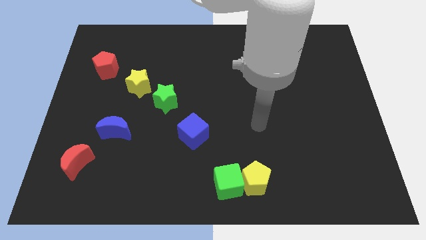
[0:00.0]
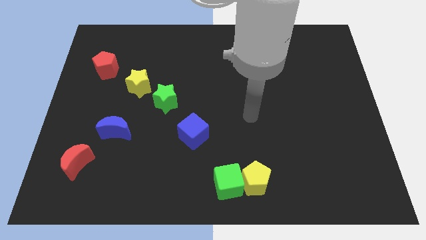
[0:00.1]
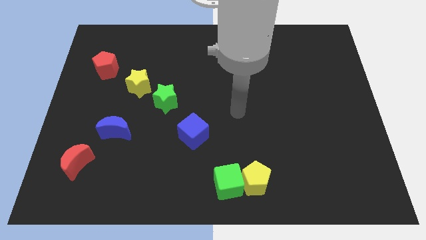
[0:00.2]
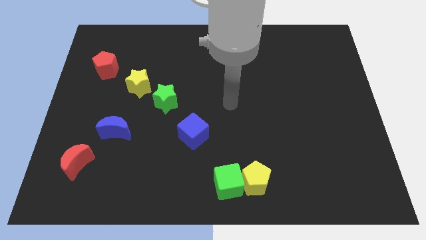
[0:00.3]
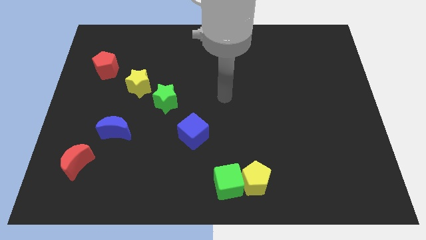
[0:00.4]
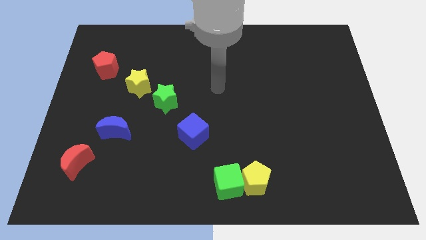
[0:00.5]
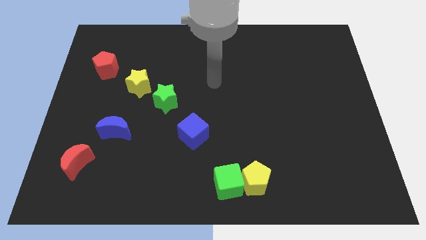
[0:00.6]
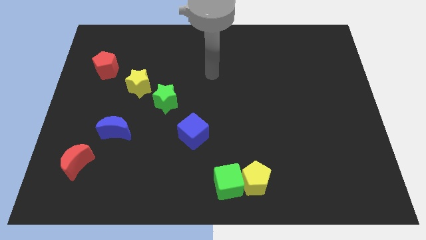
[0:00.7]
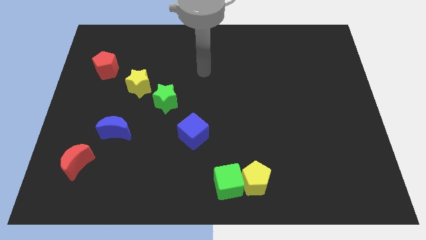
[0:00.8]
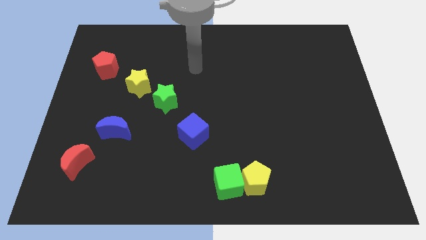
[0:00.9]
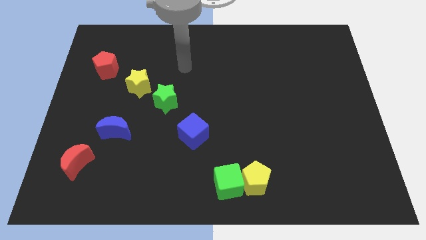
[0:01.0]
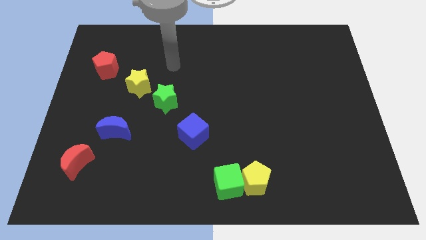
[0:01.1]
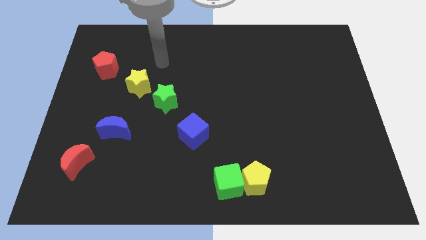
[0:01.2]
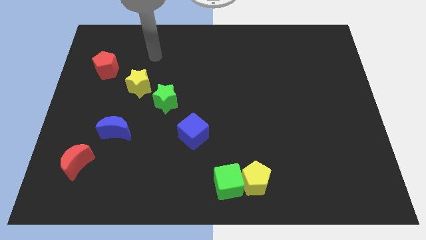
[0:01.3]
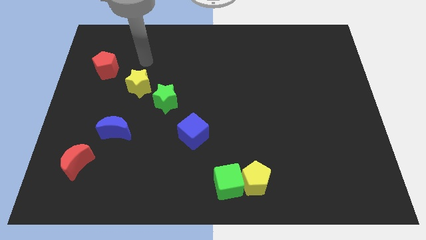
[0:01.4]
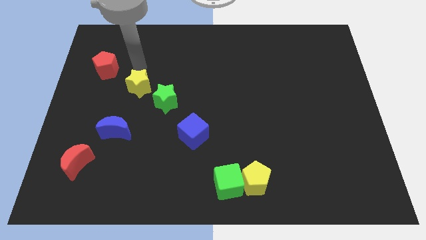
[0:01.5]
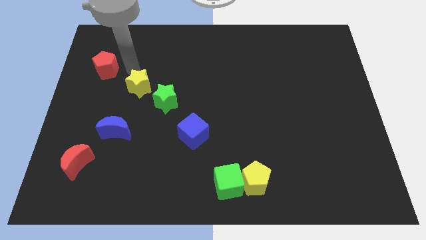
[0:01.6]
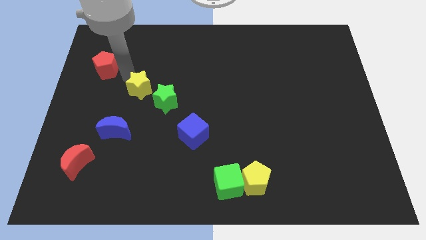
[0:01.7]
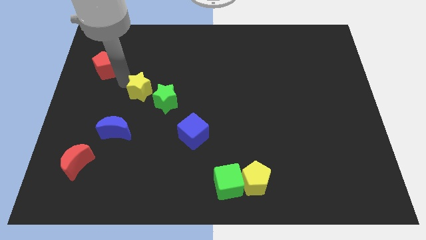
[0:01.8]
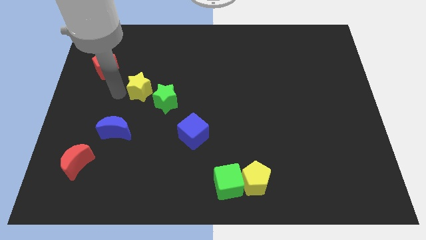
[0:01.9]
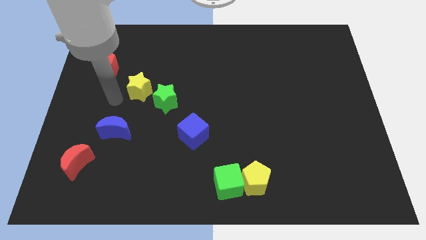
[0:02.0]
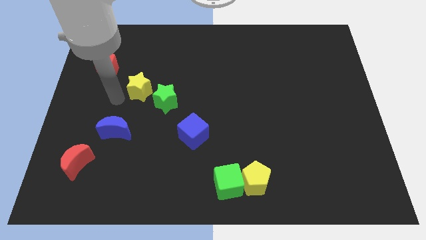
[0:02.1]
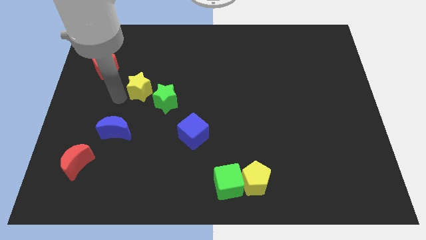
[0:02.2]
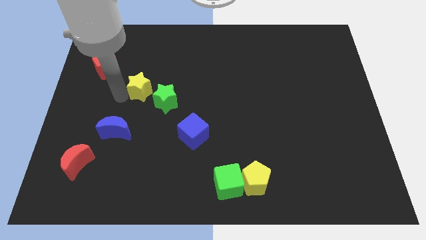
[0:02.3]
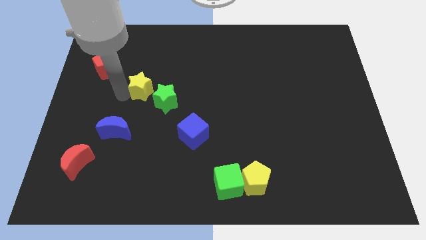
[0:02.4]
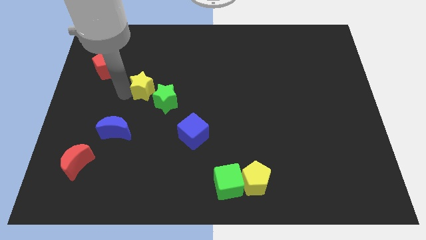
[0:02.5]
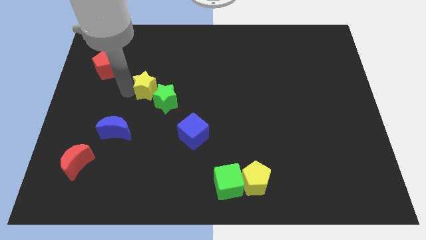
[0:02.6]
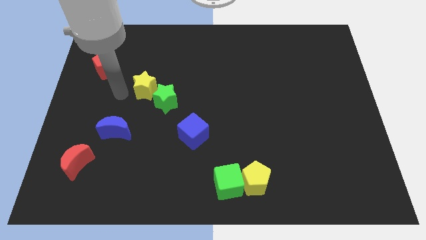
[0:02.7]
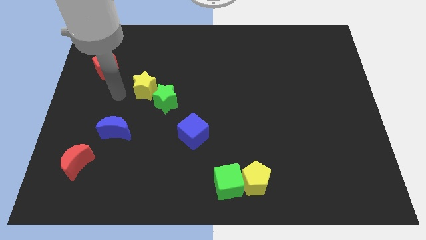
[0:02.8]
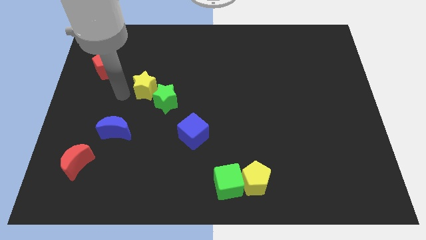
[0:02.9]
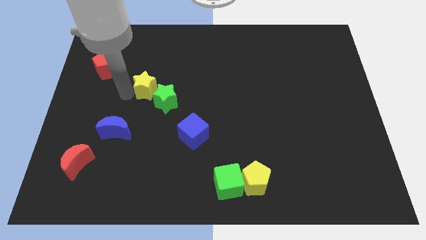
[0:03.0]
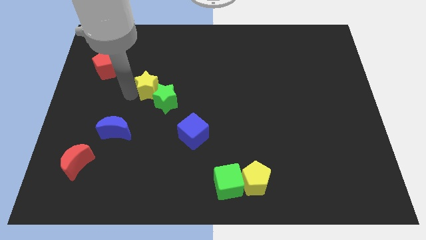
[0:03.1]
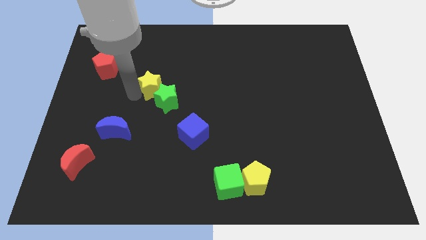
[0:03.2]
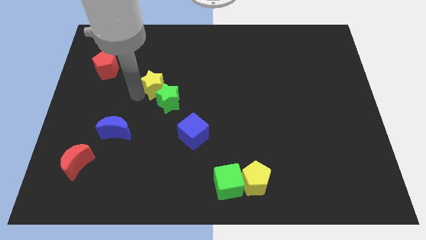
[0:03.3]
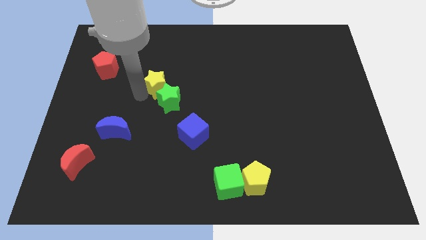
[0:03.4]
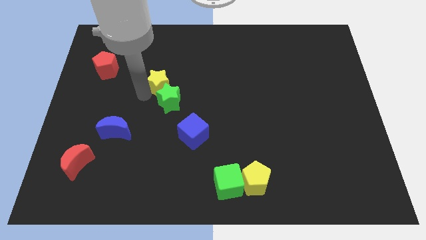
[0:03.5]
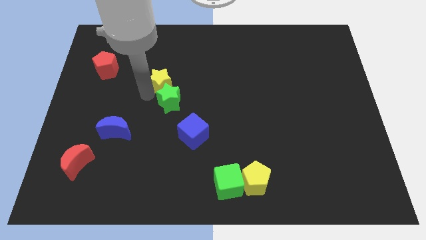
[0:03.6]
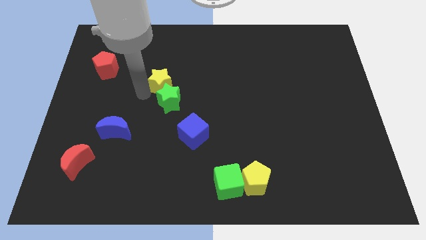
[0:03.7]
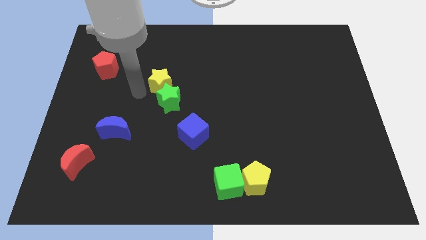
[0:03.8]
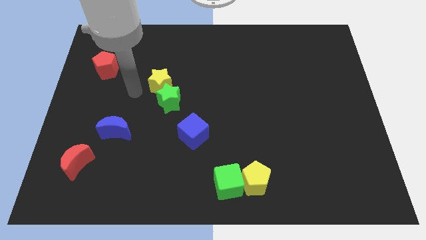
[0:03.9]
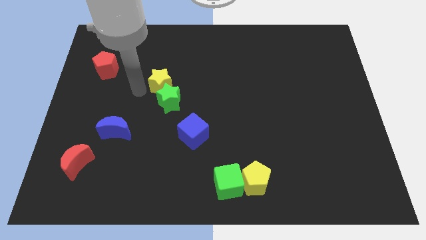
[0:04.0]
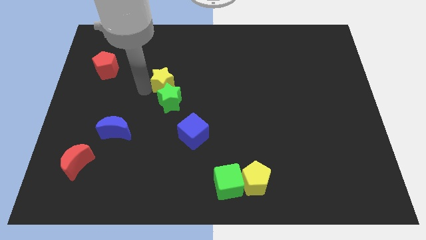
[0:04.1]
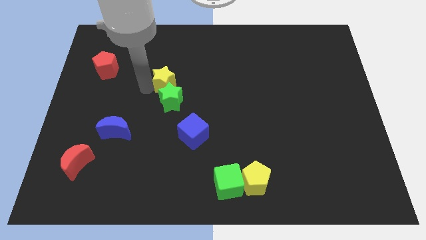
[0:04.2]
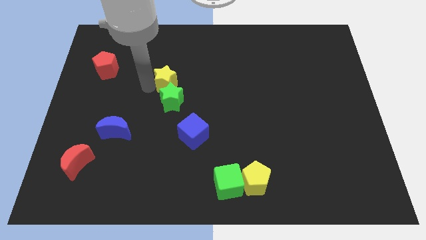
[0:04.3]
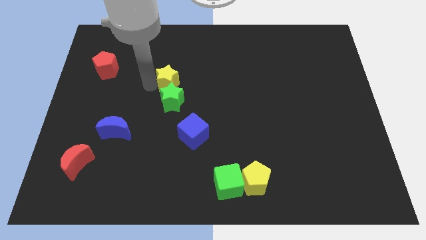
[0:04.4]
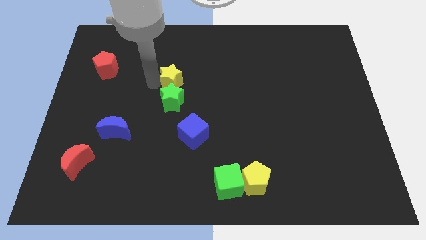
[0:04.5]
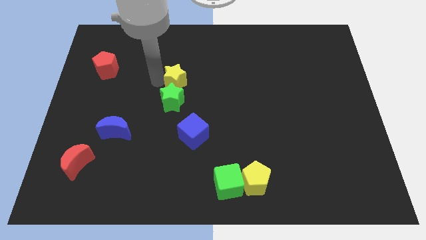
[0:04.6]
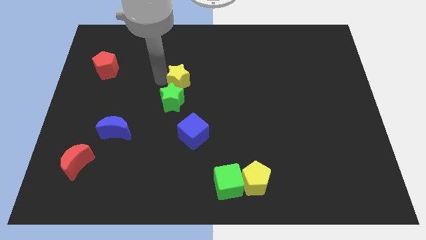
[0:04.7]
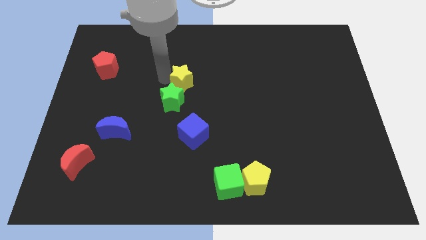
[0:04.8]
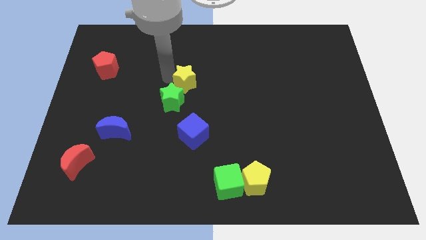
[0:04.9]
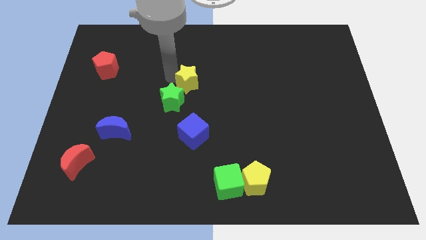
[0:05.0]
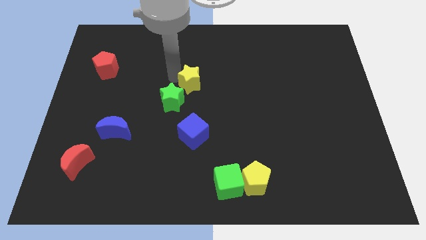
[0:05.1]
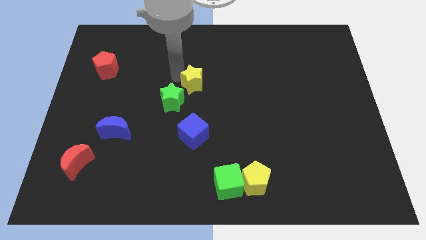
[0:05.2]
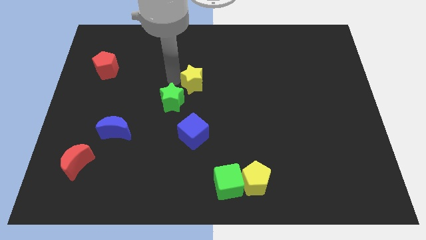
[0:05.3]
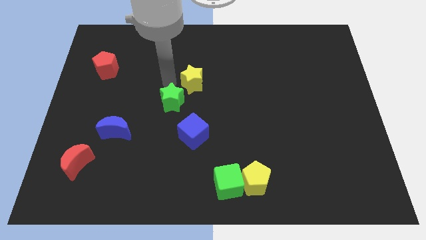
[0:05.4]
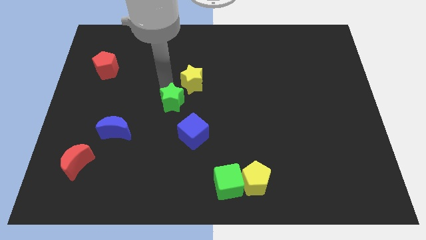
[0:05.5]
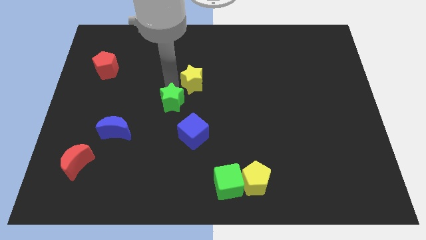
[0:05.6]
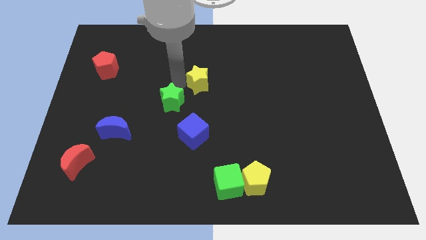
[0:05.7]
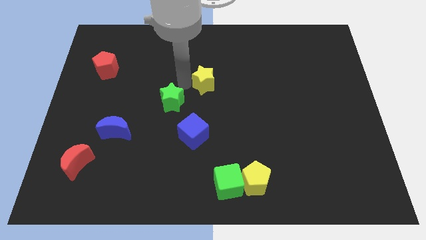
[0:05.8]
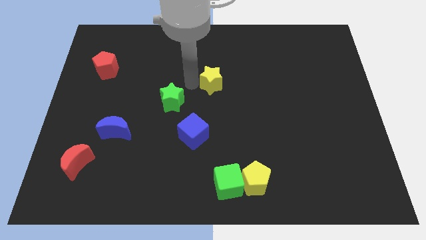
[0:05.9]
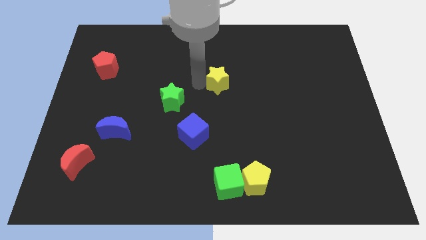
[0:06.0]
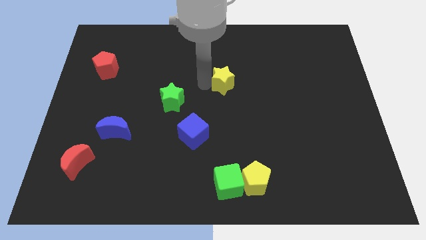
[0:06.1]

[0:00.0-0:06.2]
slide the yellow star right

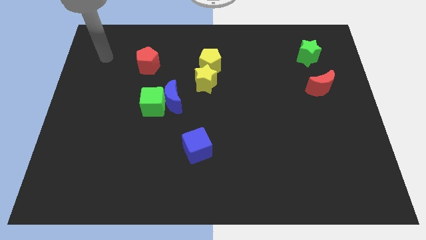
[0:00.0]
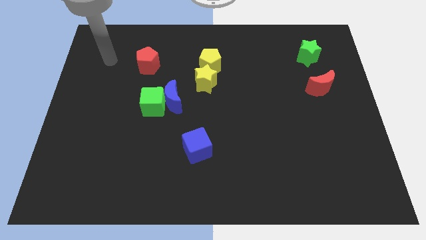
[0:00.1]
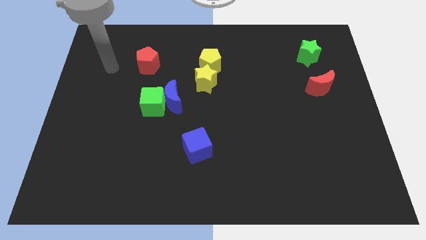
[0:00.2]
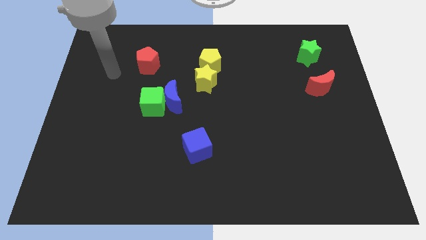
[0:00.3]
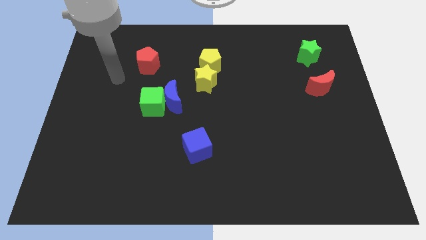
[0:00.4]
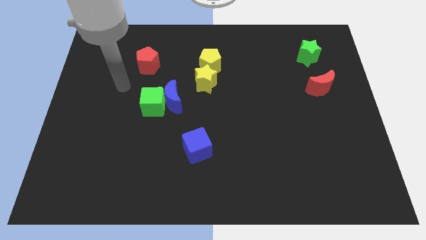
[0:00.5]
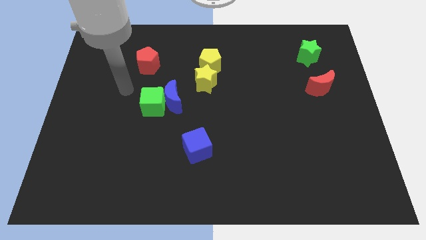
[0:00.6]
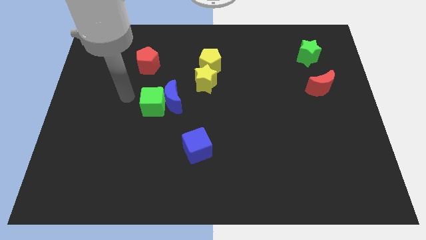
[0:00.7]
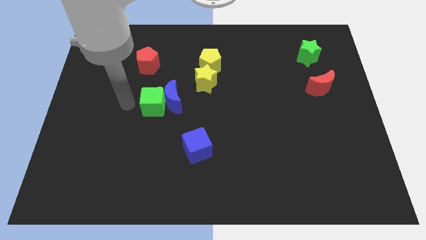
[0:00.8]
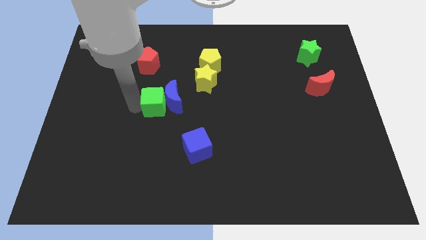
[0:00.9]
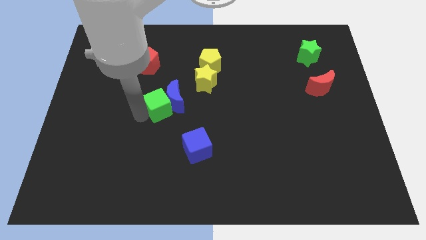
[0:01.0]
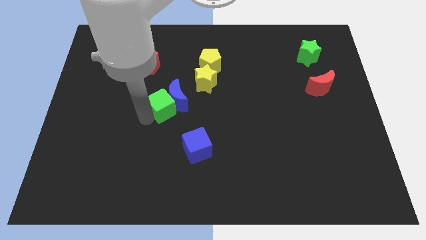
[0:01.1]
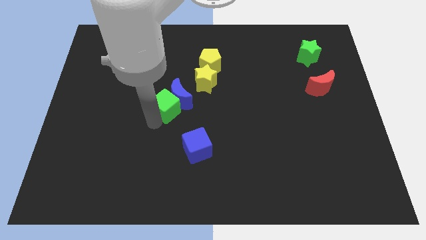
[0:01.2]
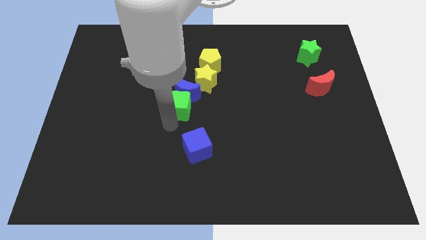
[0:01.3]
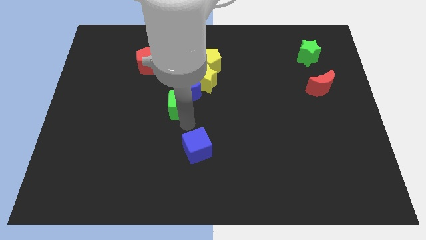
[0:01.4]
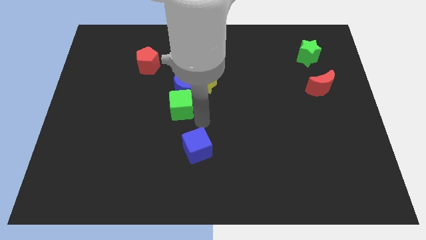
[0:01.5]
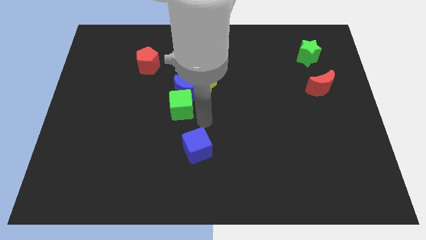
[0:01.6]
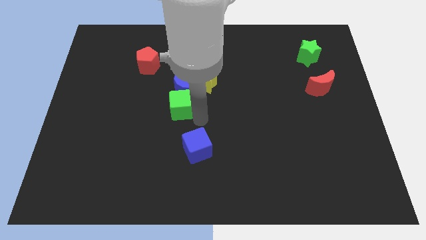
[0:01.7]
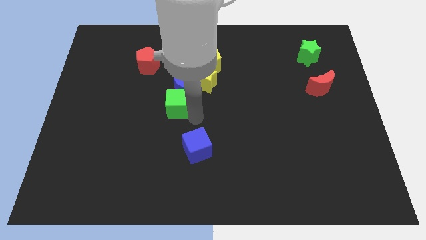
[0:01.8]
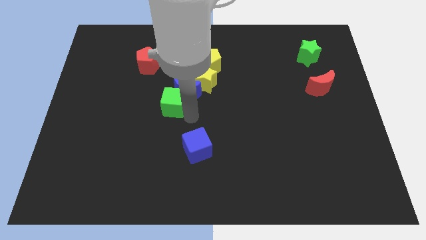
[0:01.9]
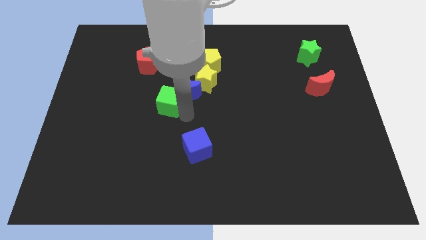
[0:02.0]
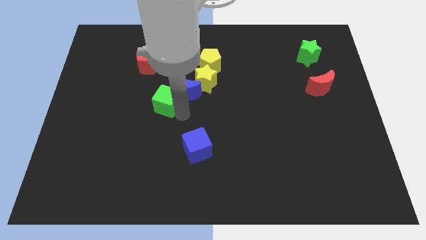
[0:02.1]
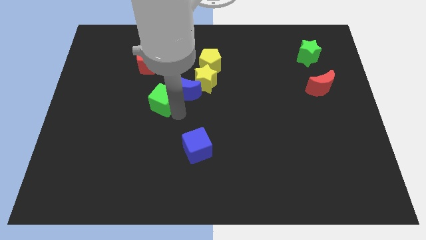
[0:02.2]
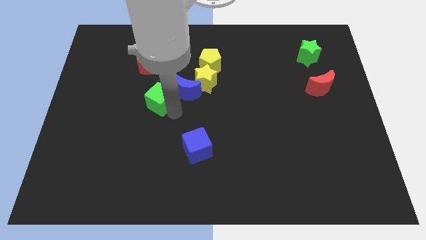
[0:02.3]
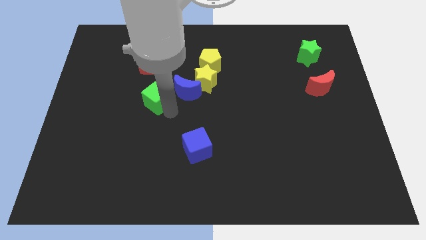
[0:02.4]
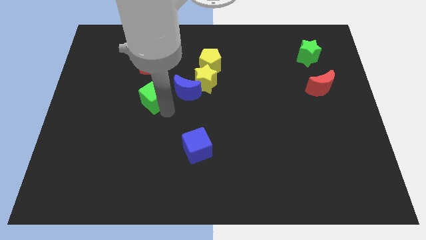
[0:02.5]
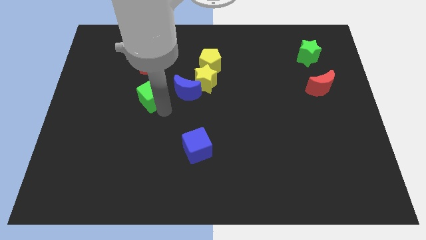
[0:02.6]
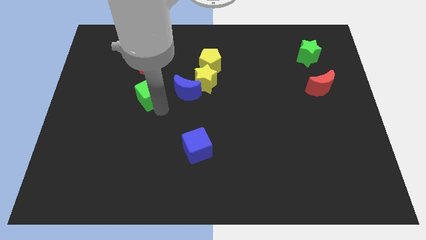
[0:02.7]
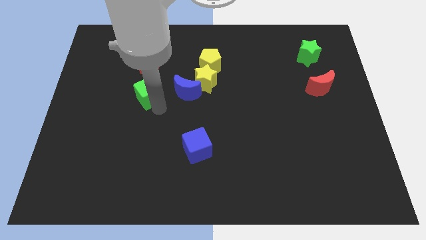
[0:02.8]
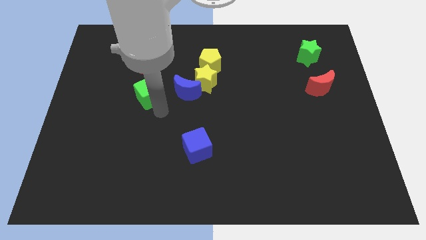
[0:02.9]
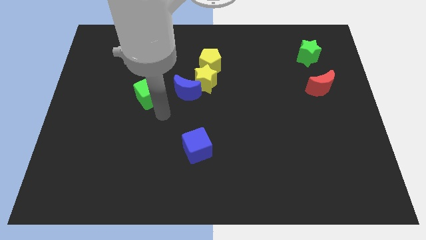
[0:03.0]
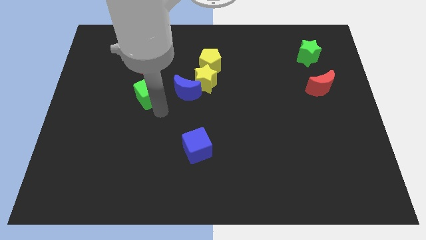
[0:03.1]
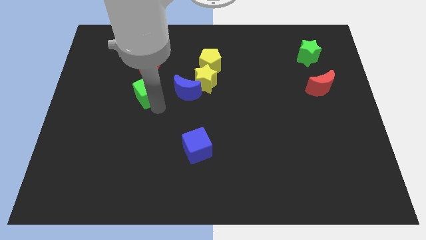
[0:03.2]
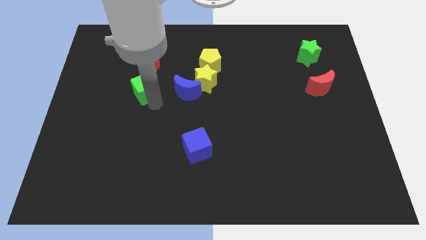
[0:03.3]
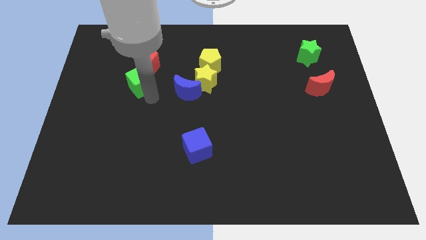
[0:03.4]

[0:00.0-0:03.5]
slide the green cube somewhat upwards and then to the left
